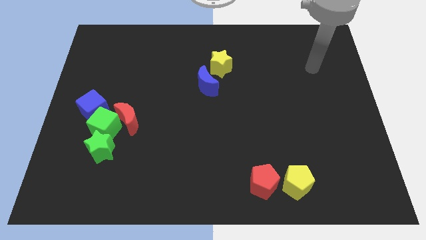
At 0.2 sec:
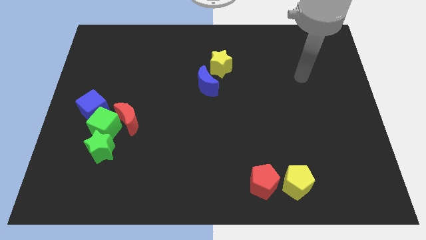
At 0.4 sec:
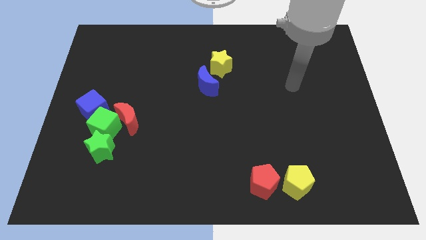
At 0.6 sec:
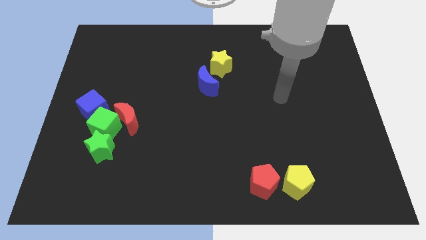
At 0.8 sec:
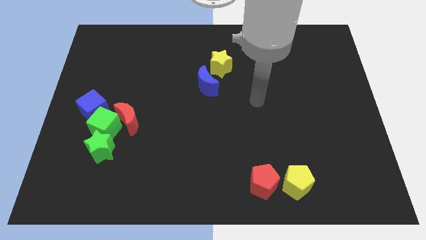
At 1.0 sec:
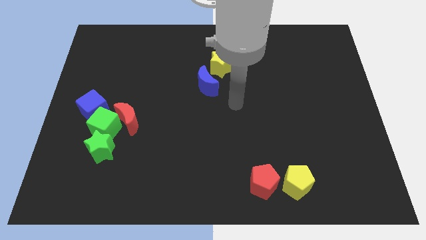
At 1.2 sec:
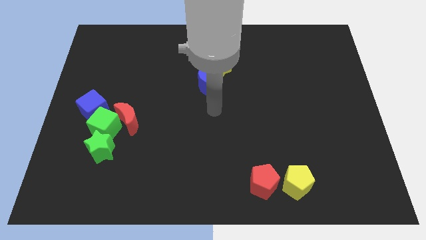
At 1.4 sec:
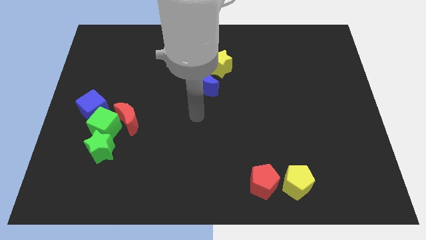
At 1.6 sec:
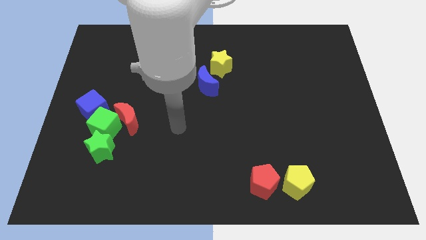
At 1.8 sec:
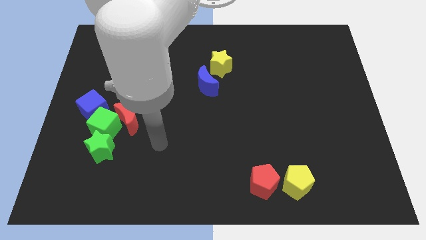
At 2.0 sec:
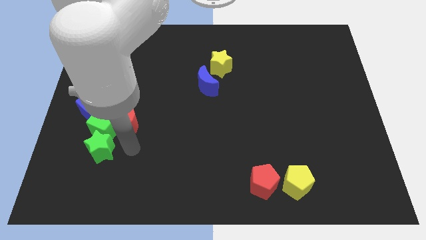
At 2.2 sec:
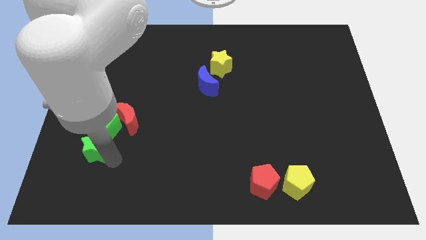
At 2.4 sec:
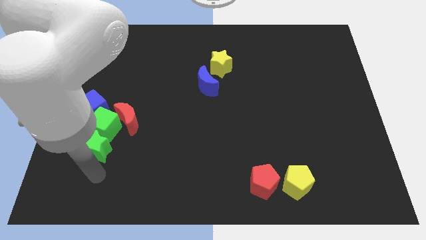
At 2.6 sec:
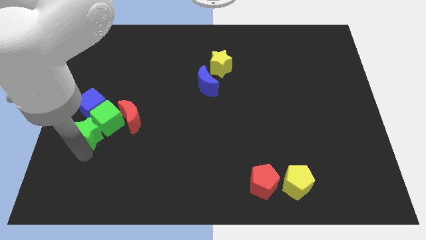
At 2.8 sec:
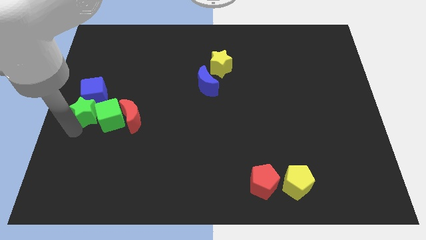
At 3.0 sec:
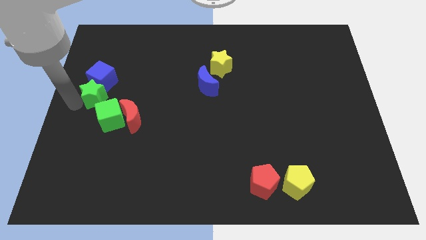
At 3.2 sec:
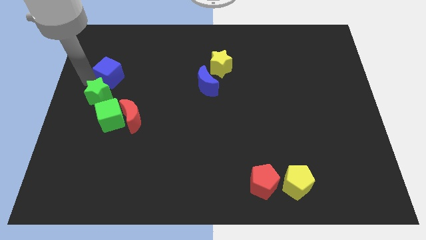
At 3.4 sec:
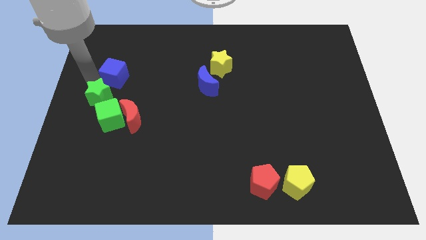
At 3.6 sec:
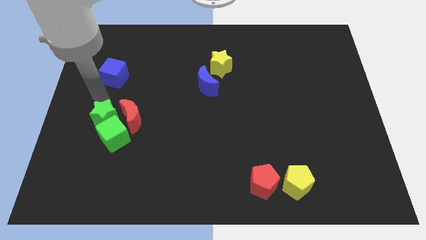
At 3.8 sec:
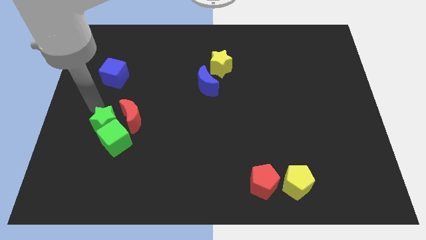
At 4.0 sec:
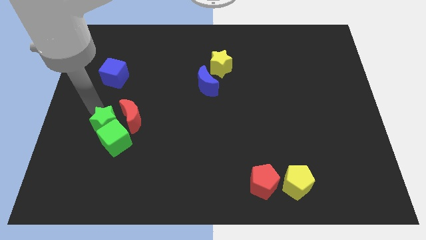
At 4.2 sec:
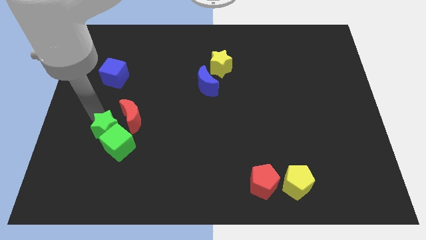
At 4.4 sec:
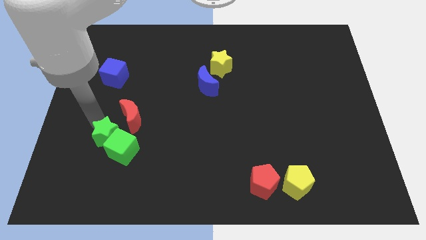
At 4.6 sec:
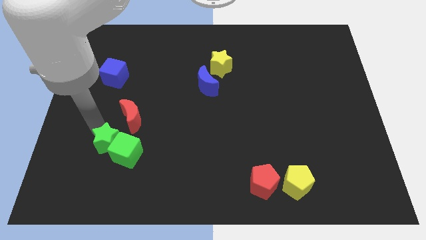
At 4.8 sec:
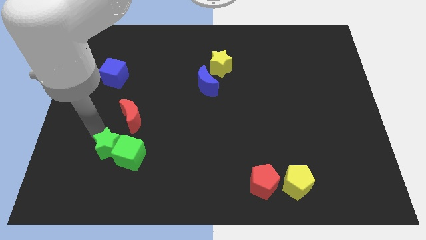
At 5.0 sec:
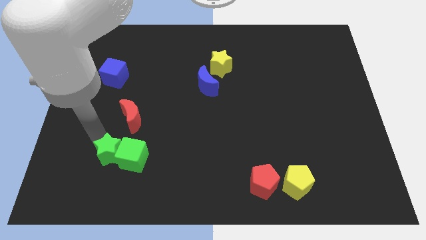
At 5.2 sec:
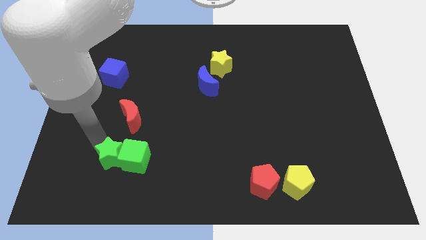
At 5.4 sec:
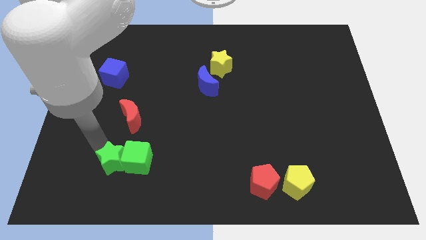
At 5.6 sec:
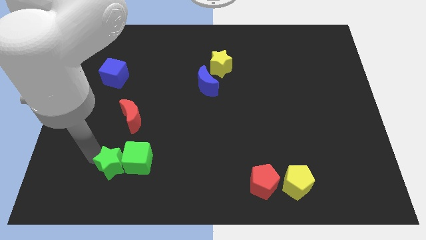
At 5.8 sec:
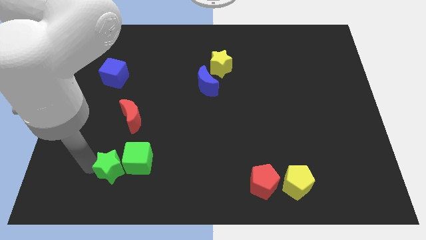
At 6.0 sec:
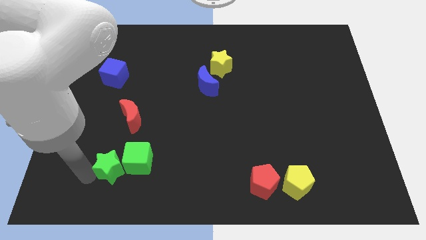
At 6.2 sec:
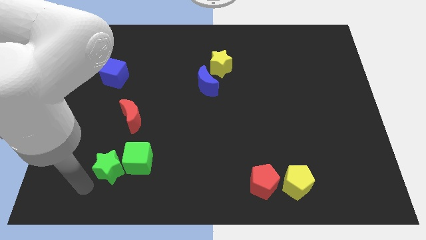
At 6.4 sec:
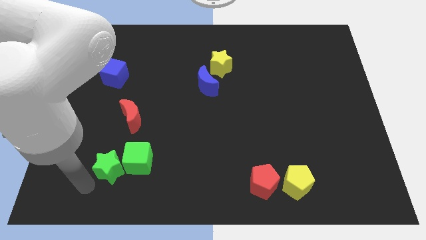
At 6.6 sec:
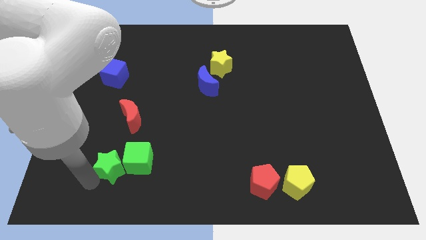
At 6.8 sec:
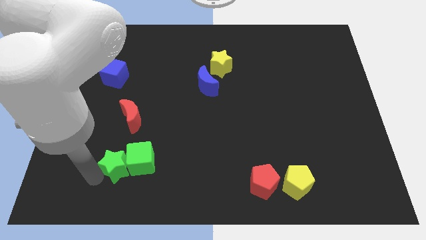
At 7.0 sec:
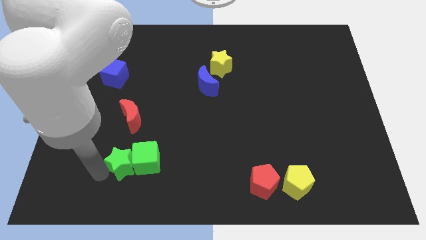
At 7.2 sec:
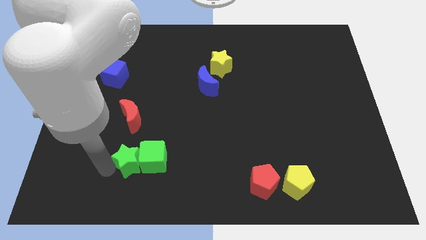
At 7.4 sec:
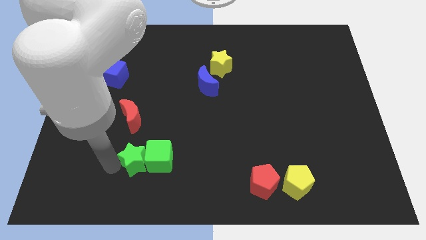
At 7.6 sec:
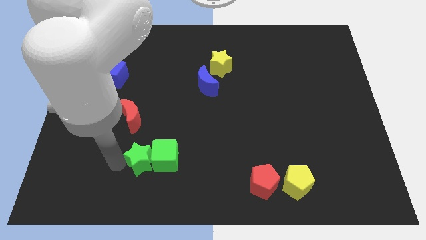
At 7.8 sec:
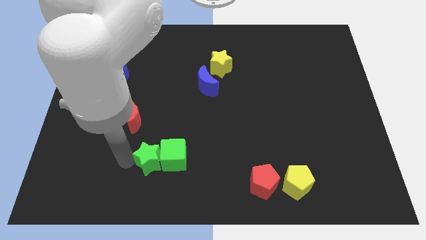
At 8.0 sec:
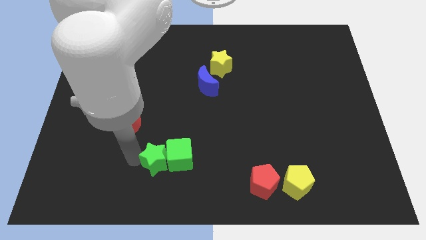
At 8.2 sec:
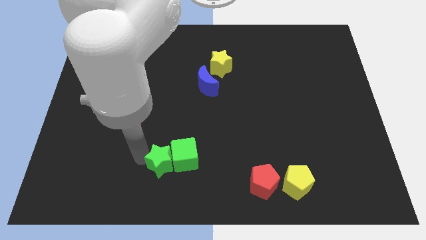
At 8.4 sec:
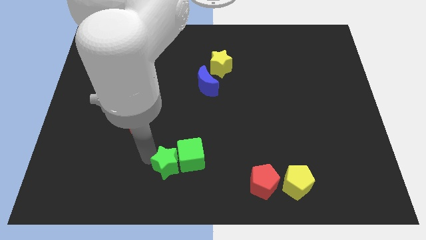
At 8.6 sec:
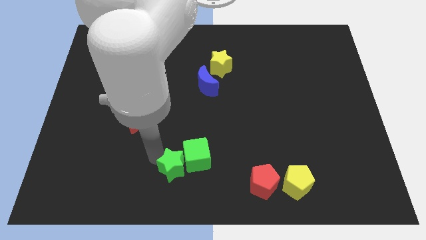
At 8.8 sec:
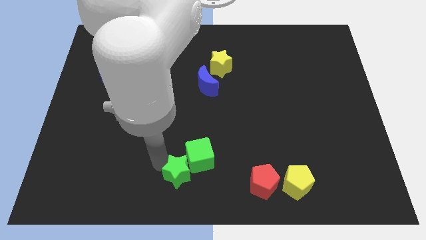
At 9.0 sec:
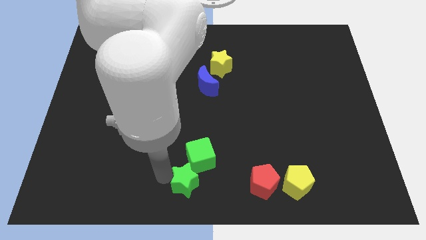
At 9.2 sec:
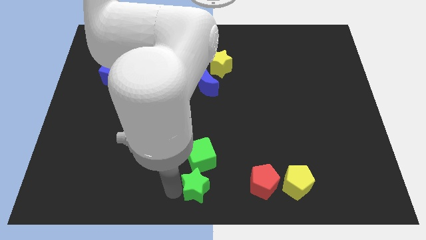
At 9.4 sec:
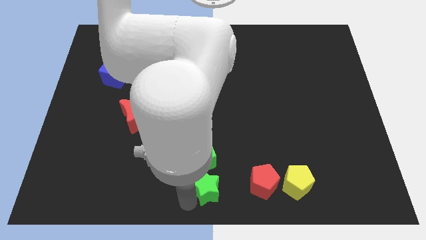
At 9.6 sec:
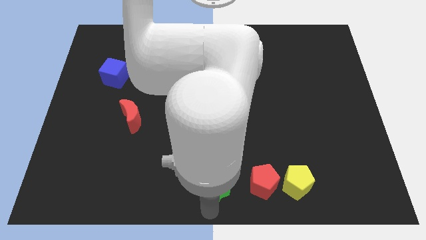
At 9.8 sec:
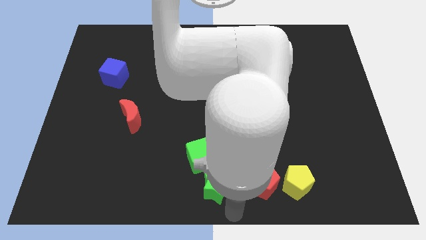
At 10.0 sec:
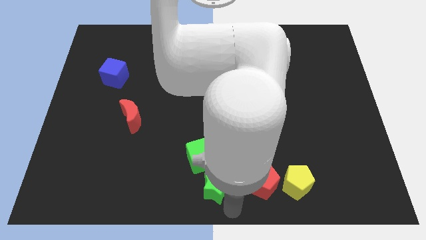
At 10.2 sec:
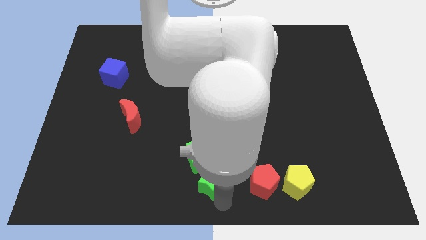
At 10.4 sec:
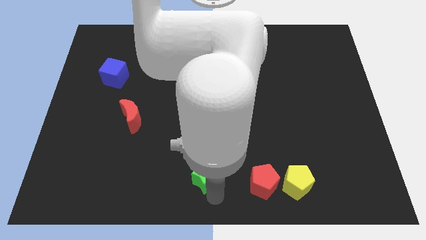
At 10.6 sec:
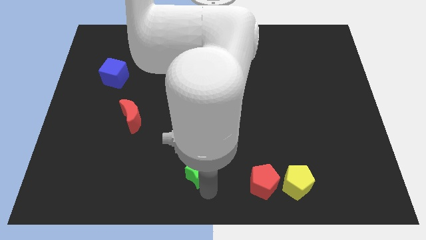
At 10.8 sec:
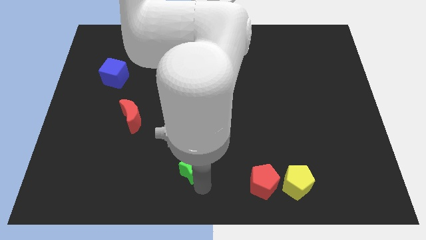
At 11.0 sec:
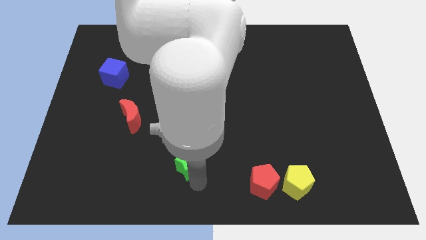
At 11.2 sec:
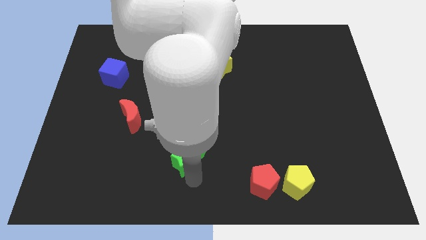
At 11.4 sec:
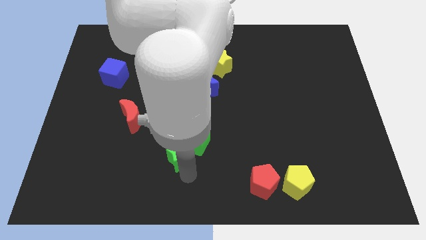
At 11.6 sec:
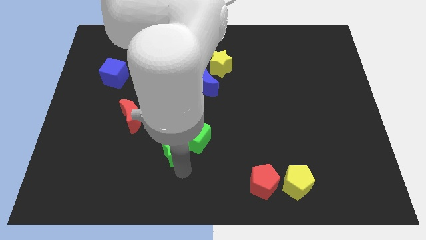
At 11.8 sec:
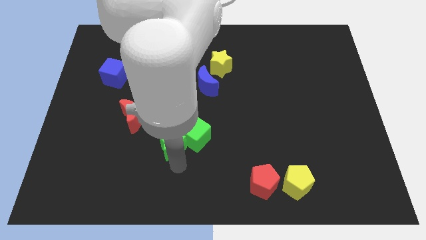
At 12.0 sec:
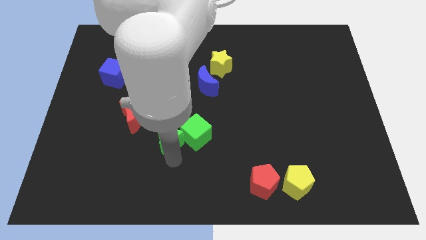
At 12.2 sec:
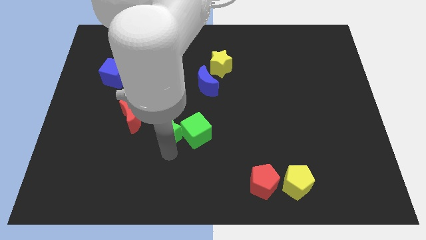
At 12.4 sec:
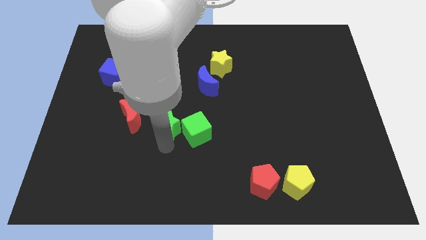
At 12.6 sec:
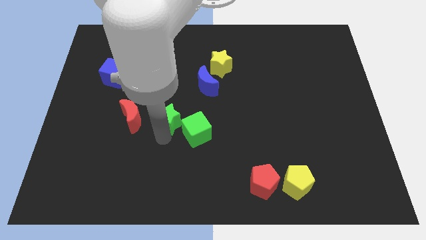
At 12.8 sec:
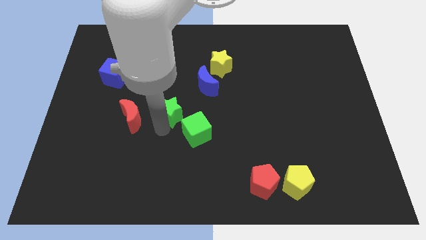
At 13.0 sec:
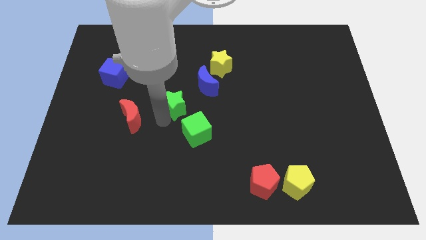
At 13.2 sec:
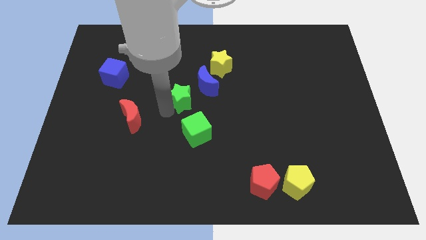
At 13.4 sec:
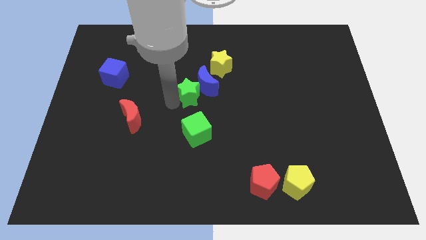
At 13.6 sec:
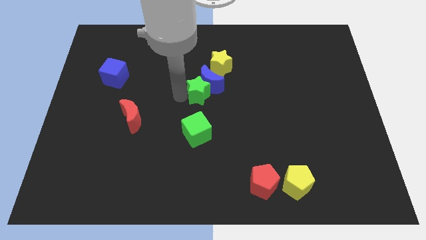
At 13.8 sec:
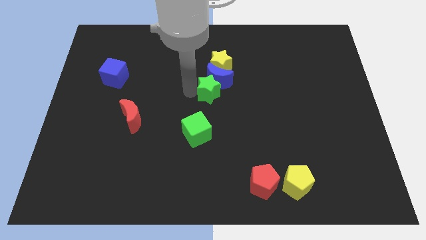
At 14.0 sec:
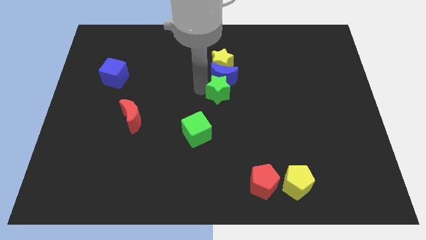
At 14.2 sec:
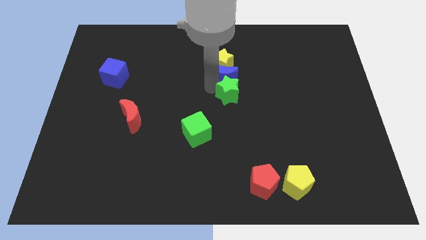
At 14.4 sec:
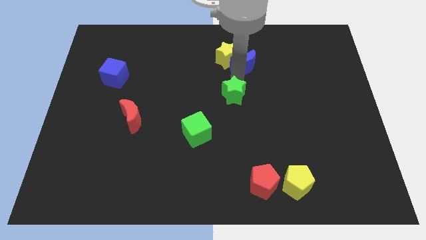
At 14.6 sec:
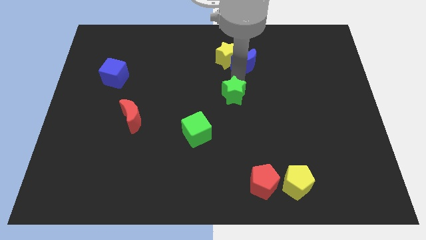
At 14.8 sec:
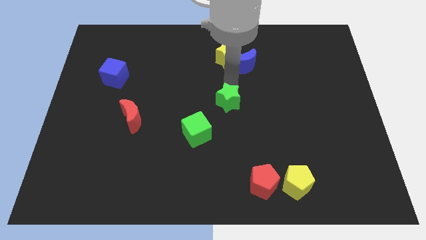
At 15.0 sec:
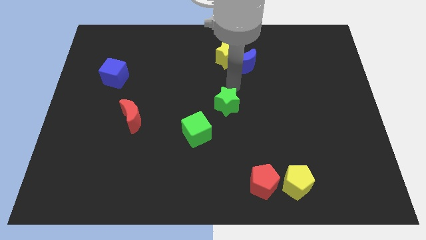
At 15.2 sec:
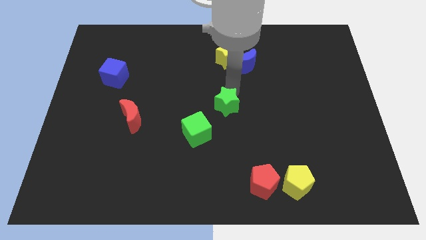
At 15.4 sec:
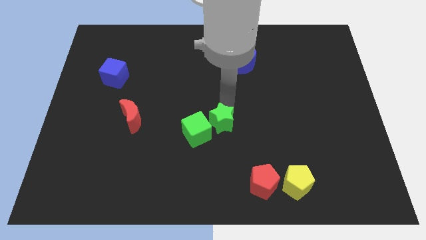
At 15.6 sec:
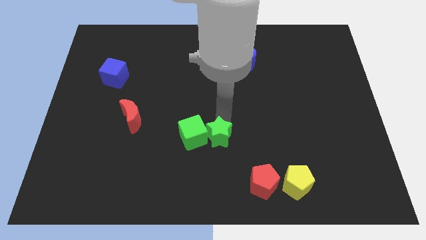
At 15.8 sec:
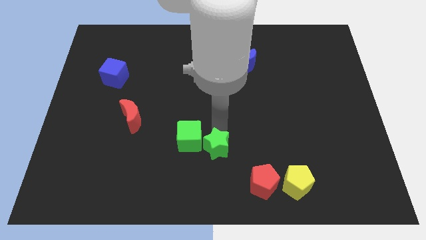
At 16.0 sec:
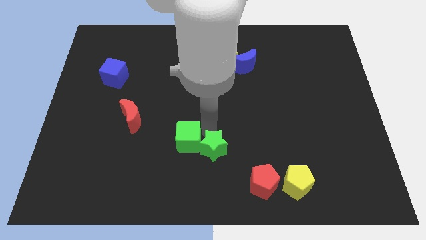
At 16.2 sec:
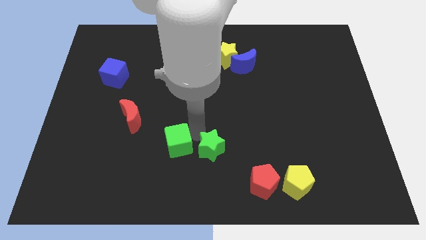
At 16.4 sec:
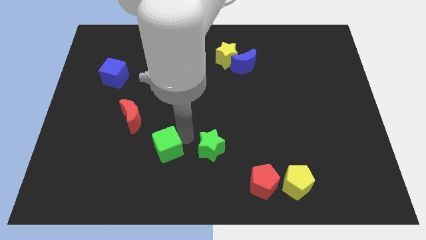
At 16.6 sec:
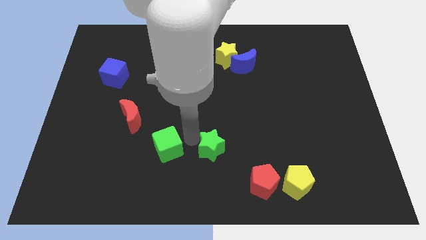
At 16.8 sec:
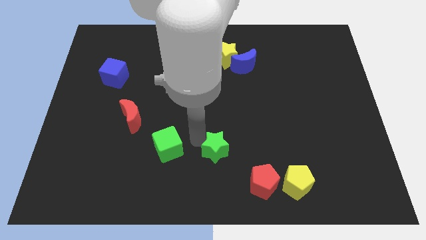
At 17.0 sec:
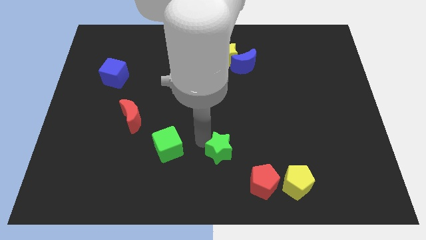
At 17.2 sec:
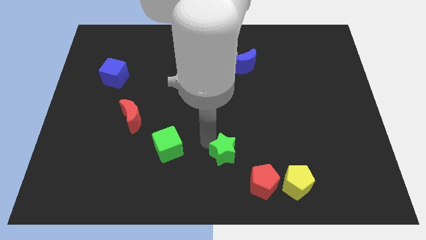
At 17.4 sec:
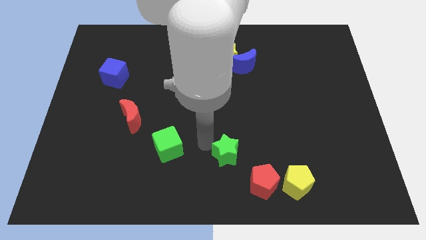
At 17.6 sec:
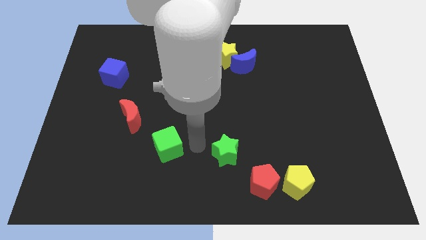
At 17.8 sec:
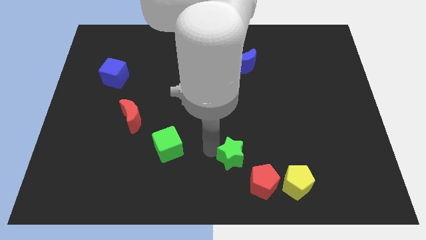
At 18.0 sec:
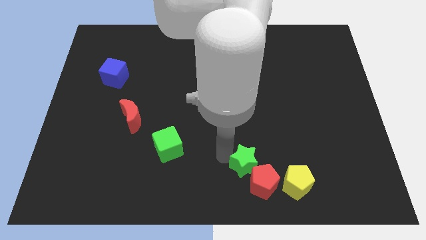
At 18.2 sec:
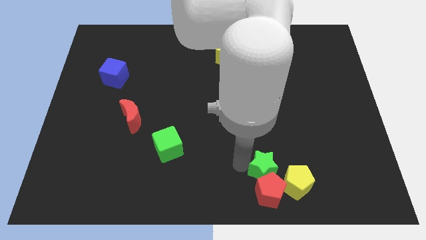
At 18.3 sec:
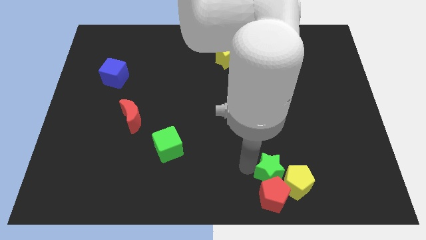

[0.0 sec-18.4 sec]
slide the green star towards the yellow pentagon
